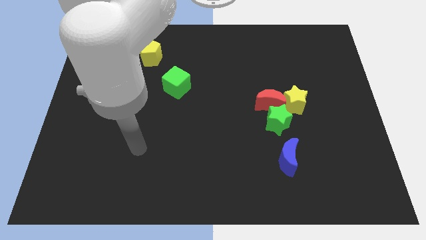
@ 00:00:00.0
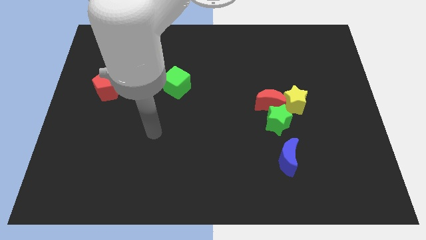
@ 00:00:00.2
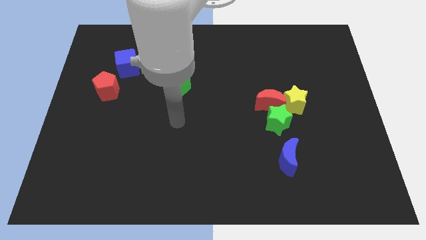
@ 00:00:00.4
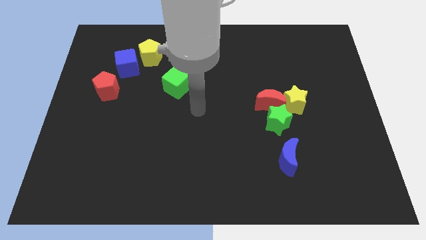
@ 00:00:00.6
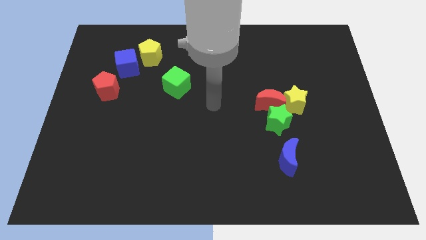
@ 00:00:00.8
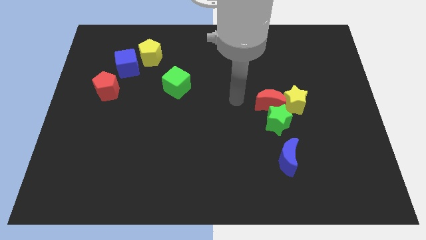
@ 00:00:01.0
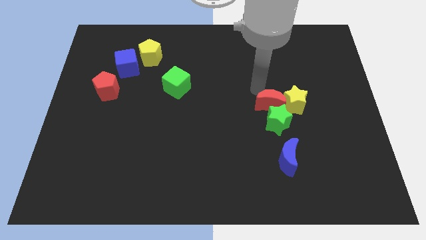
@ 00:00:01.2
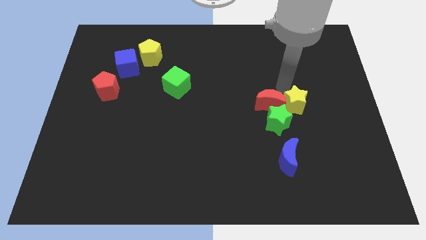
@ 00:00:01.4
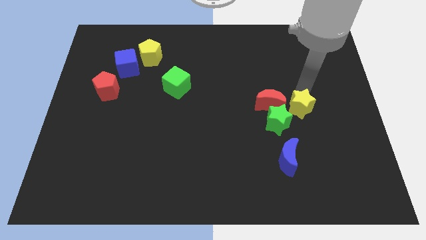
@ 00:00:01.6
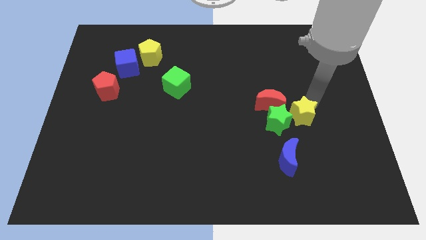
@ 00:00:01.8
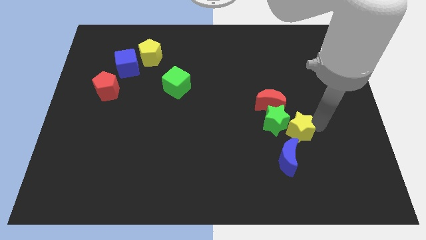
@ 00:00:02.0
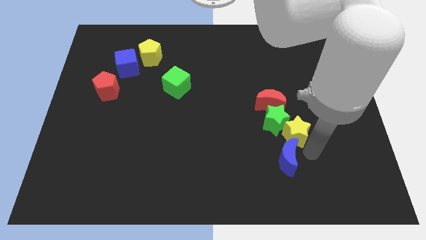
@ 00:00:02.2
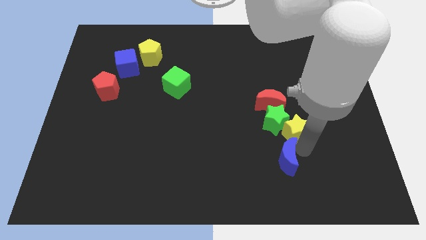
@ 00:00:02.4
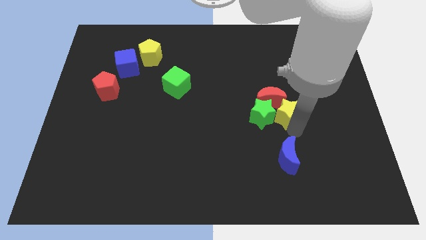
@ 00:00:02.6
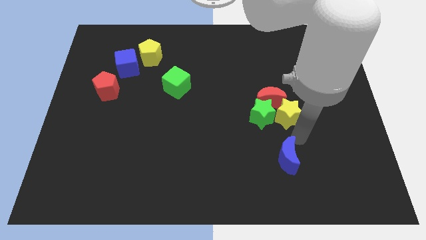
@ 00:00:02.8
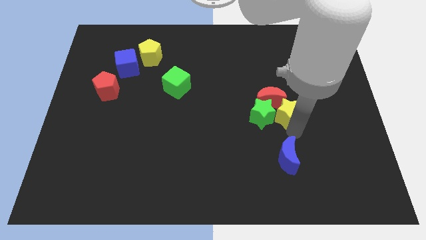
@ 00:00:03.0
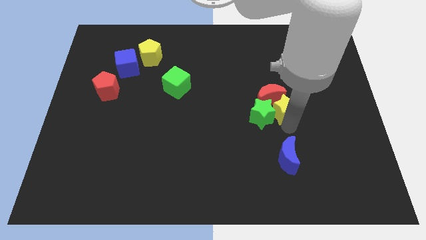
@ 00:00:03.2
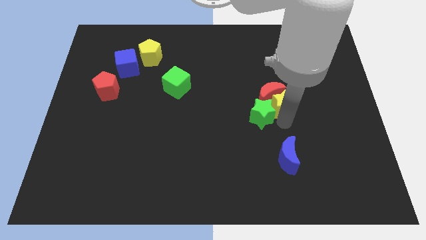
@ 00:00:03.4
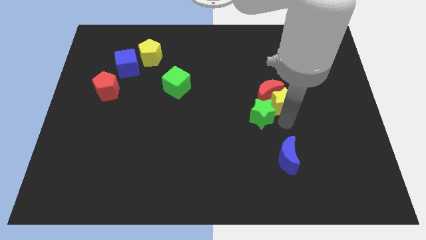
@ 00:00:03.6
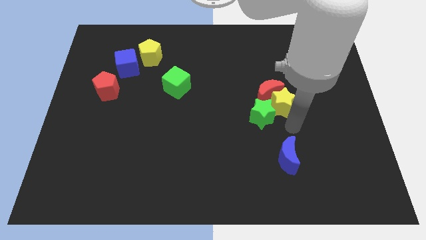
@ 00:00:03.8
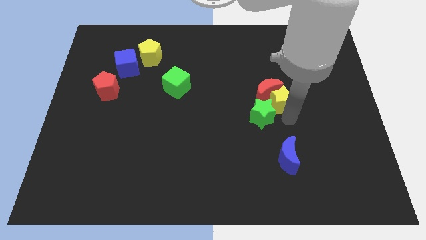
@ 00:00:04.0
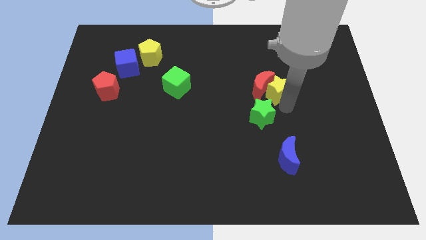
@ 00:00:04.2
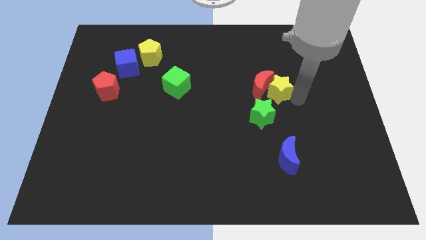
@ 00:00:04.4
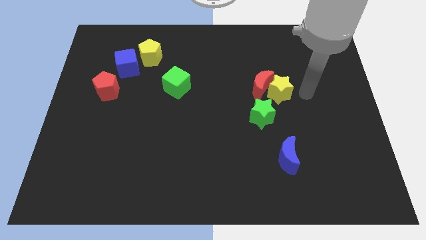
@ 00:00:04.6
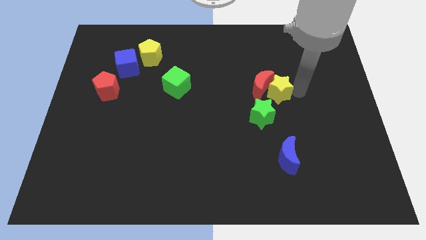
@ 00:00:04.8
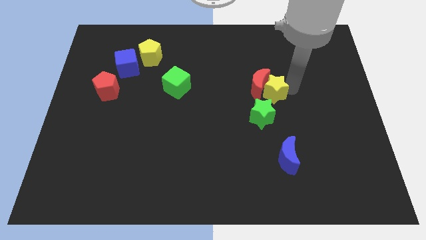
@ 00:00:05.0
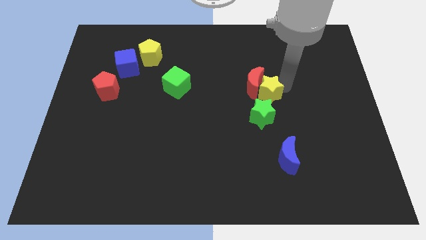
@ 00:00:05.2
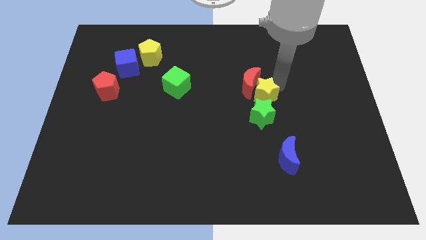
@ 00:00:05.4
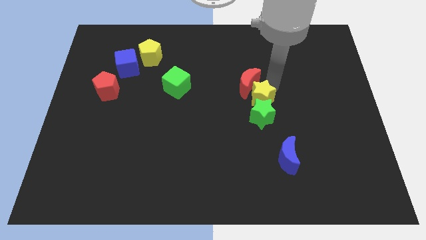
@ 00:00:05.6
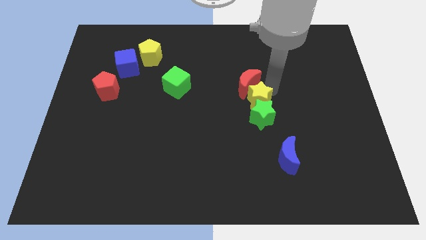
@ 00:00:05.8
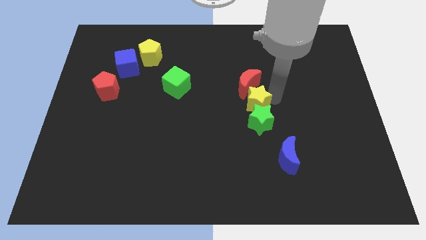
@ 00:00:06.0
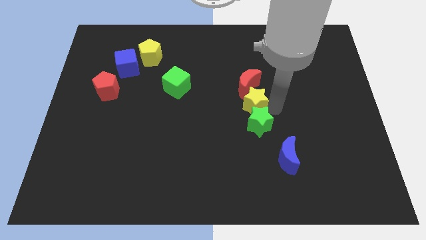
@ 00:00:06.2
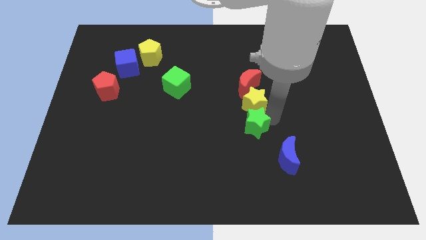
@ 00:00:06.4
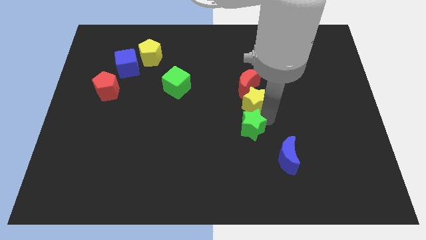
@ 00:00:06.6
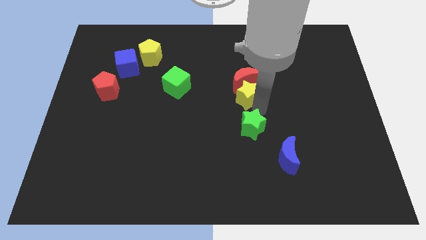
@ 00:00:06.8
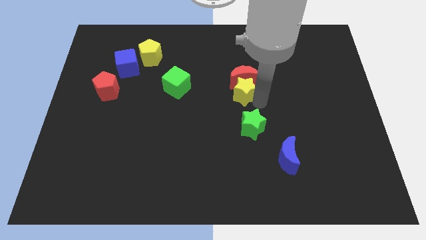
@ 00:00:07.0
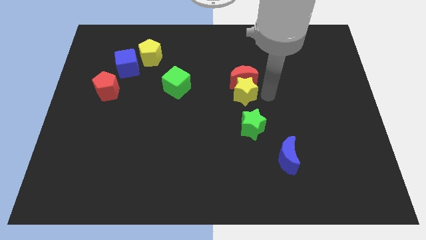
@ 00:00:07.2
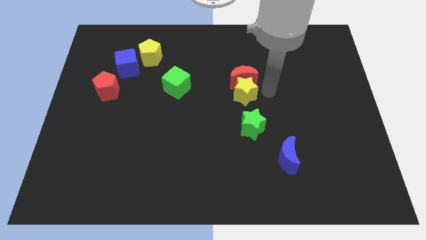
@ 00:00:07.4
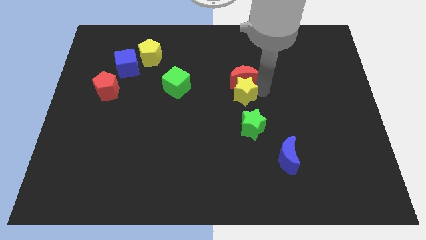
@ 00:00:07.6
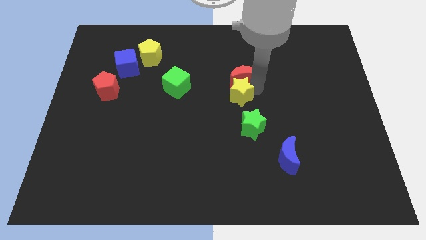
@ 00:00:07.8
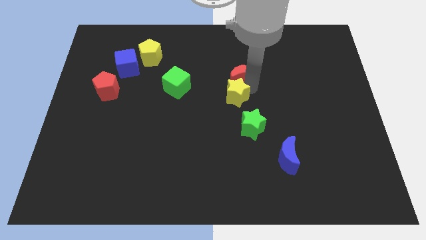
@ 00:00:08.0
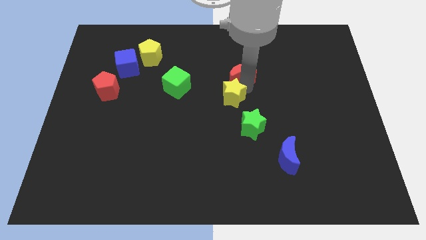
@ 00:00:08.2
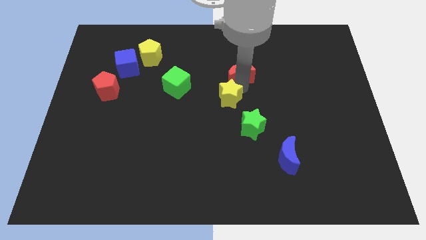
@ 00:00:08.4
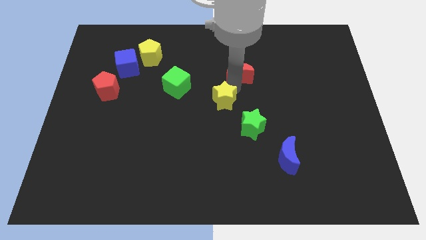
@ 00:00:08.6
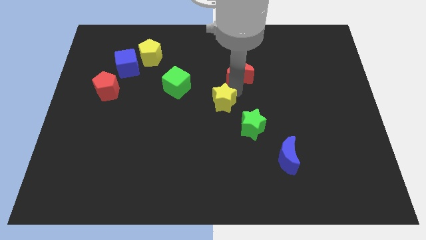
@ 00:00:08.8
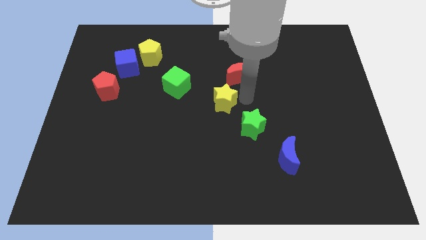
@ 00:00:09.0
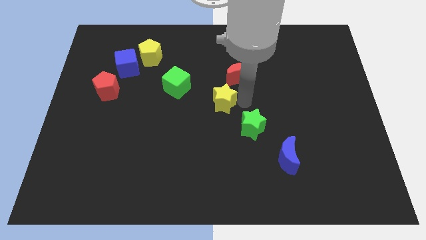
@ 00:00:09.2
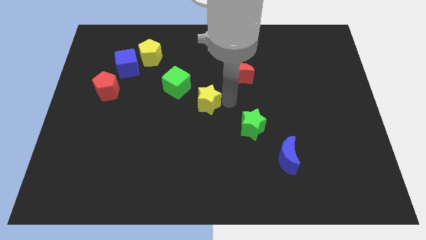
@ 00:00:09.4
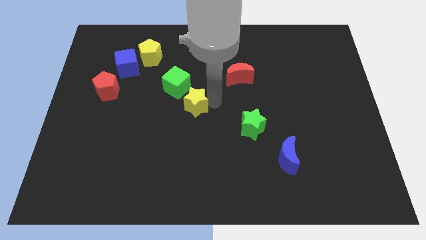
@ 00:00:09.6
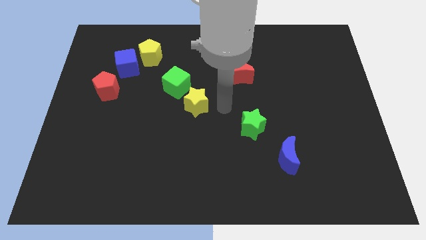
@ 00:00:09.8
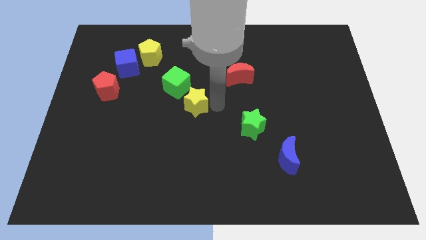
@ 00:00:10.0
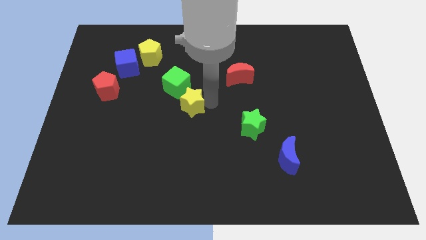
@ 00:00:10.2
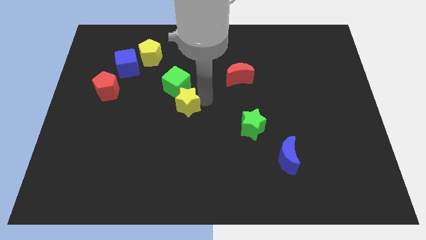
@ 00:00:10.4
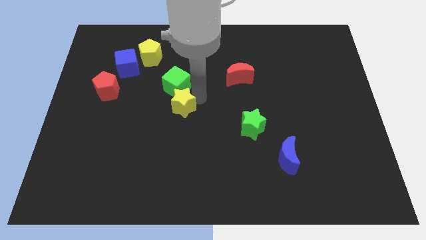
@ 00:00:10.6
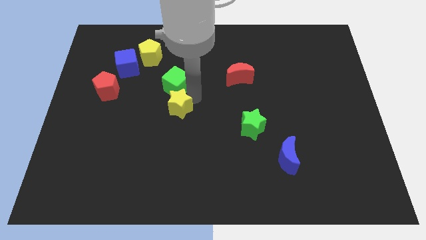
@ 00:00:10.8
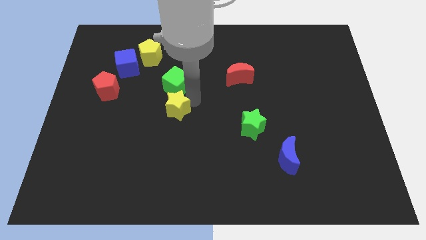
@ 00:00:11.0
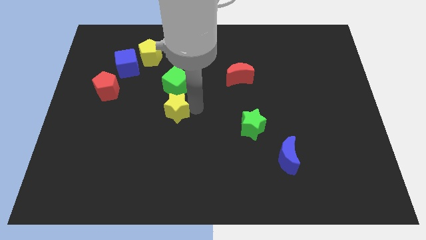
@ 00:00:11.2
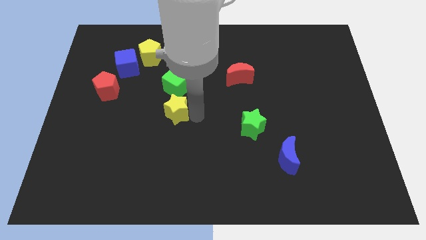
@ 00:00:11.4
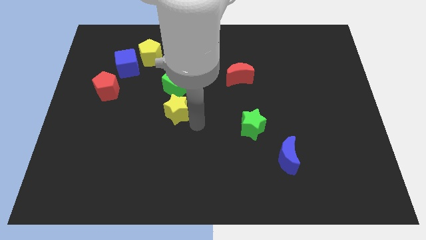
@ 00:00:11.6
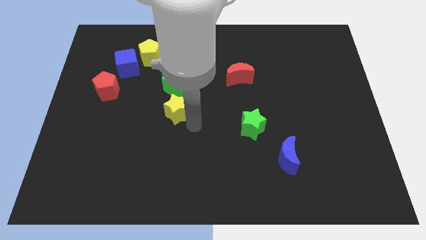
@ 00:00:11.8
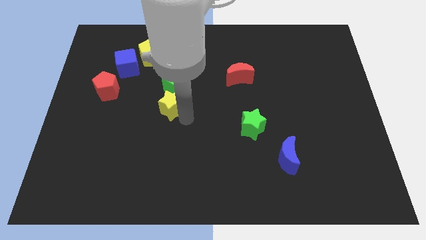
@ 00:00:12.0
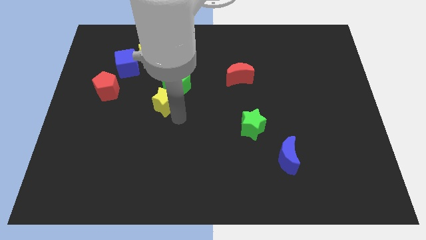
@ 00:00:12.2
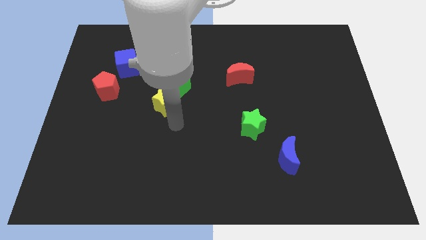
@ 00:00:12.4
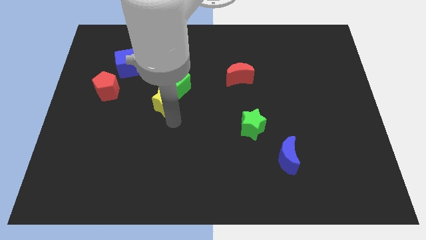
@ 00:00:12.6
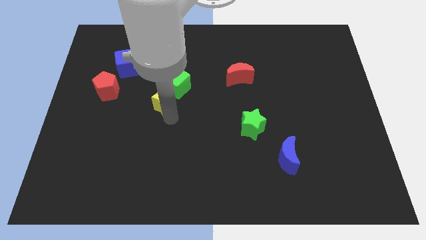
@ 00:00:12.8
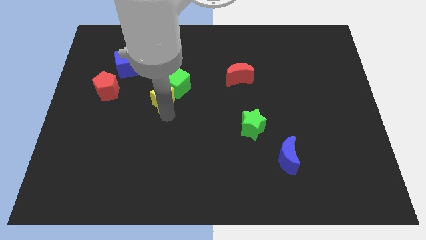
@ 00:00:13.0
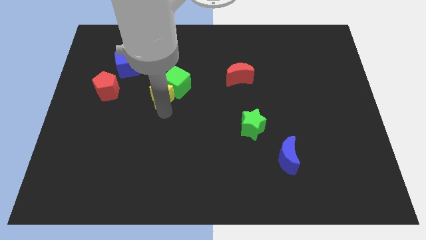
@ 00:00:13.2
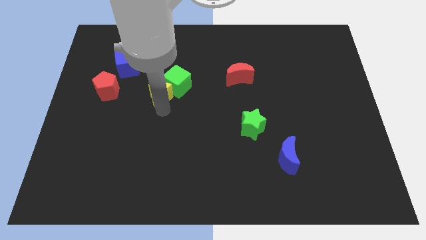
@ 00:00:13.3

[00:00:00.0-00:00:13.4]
put the yellow star below the yellow pentagon
